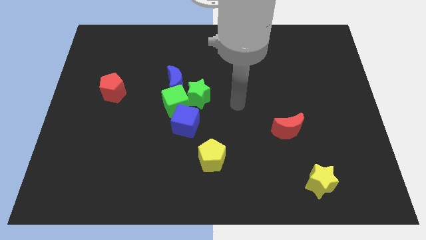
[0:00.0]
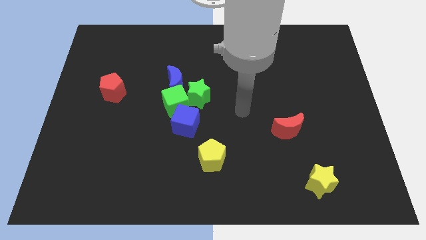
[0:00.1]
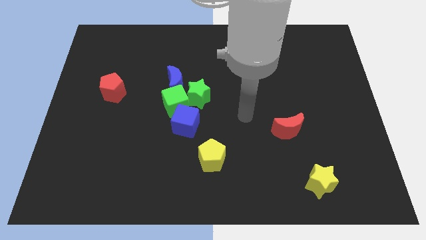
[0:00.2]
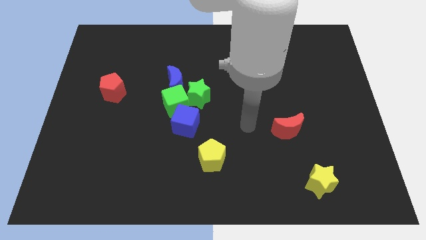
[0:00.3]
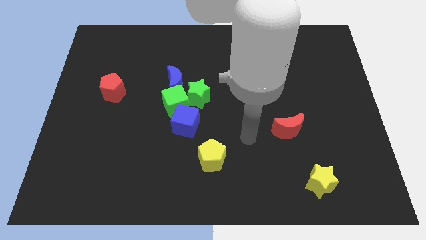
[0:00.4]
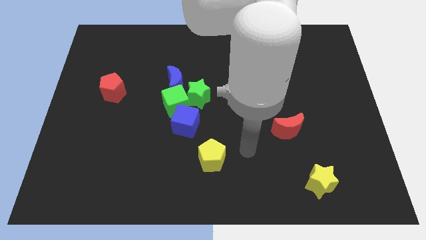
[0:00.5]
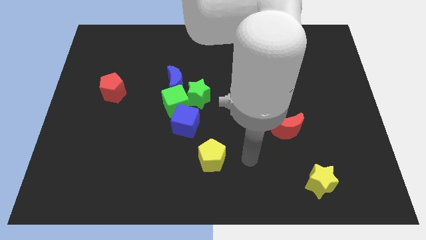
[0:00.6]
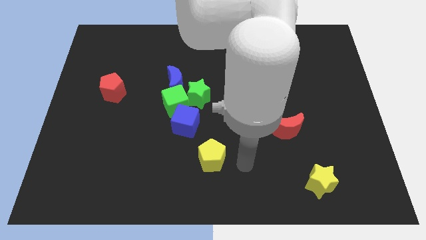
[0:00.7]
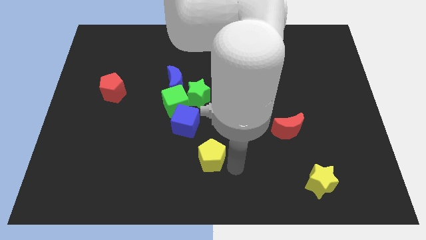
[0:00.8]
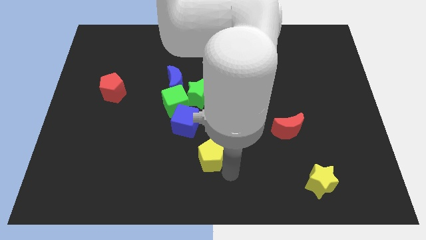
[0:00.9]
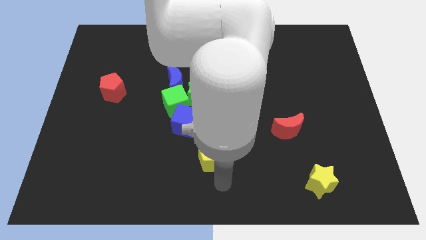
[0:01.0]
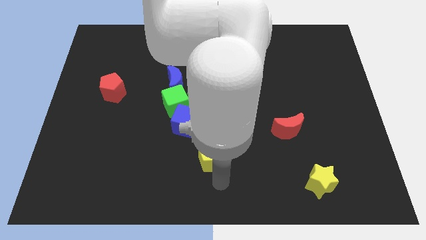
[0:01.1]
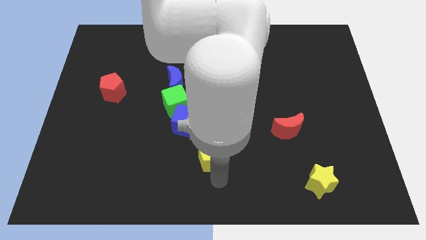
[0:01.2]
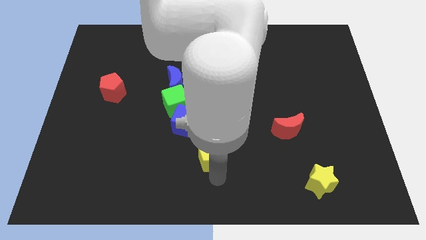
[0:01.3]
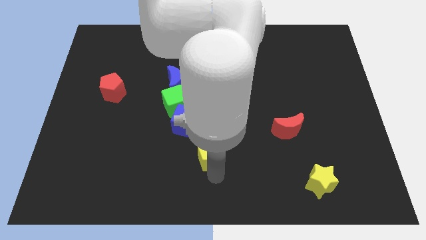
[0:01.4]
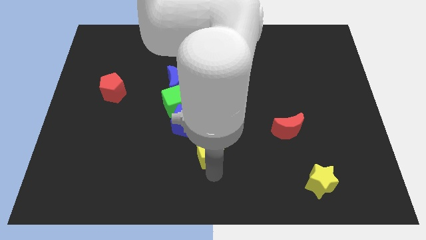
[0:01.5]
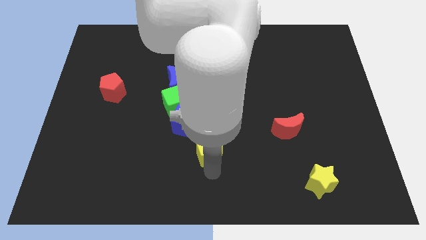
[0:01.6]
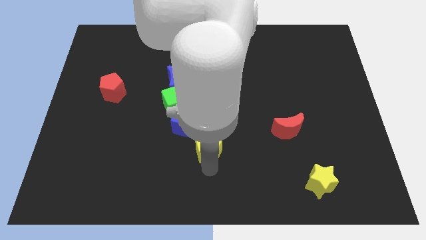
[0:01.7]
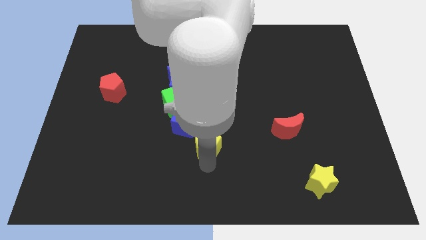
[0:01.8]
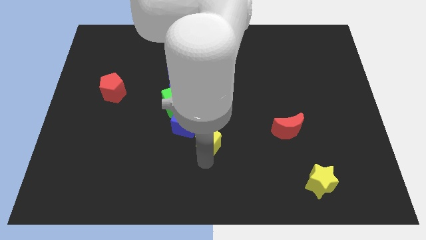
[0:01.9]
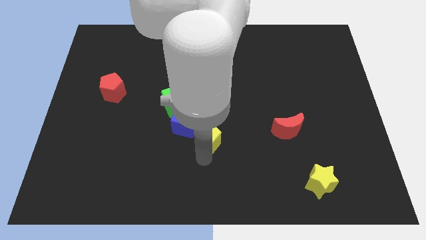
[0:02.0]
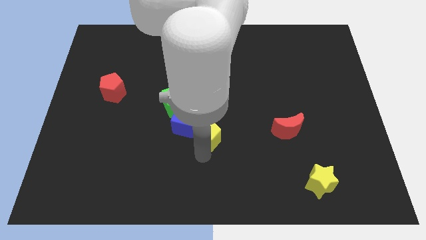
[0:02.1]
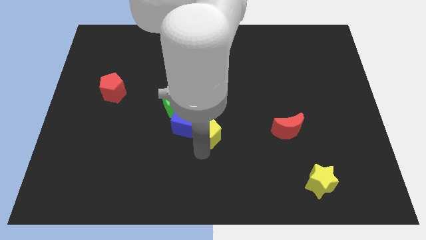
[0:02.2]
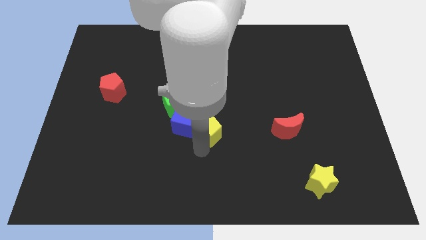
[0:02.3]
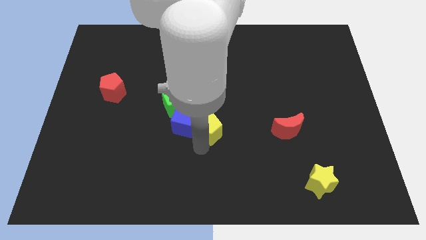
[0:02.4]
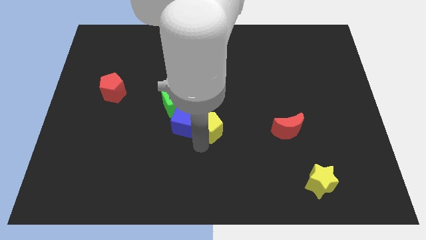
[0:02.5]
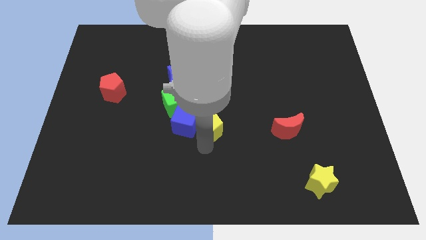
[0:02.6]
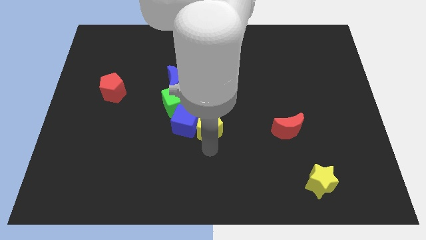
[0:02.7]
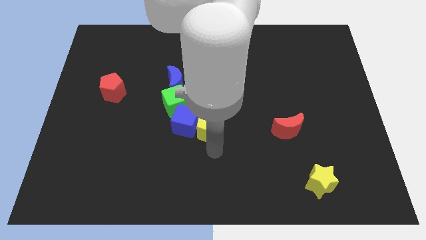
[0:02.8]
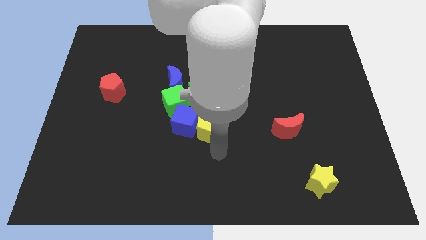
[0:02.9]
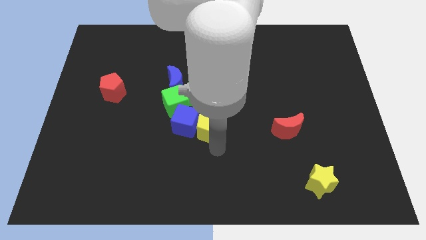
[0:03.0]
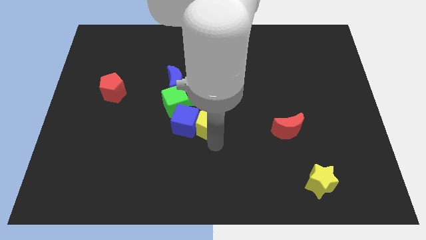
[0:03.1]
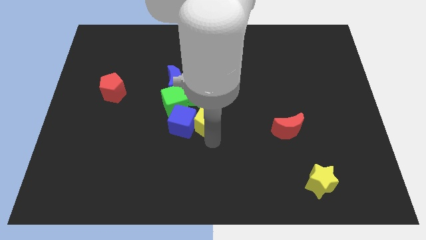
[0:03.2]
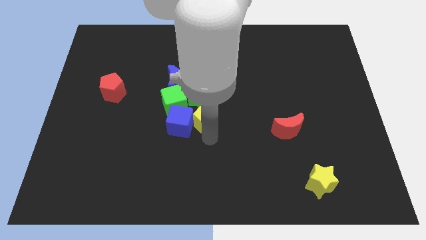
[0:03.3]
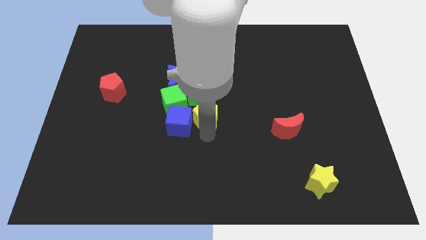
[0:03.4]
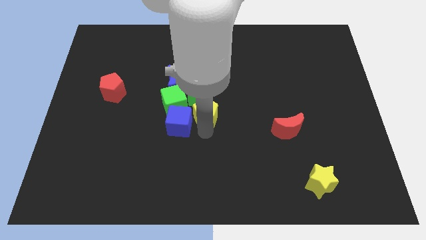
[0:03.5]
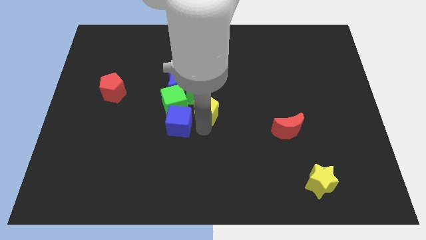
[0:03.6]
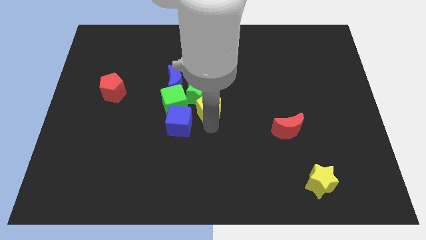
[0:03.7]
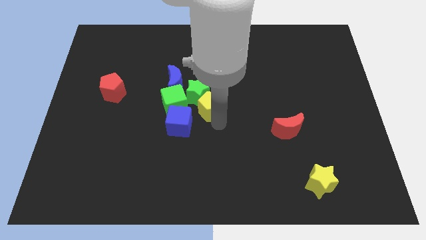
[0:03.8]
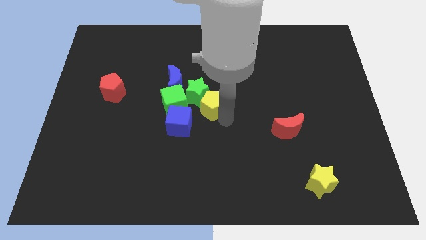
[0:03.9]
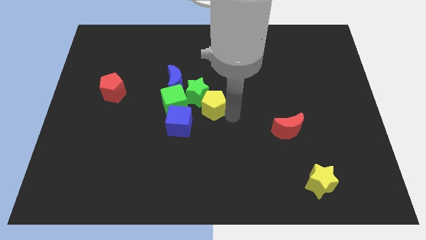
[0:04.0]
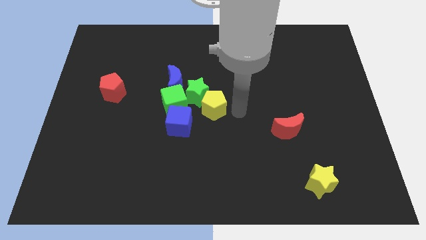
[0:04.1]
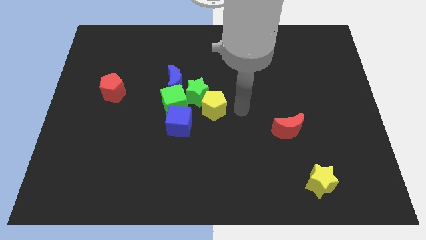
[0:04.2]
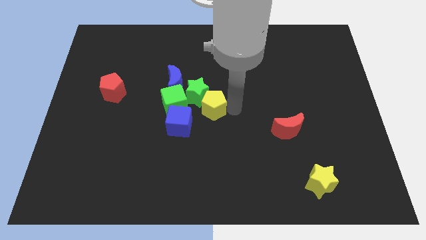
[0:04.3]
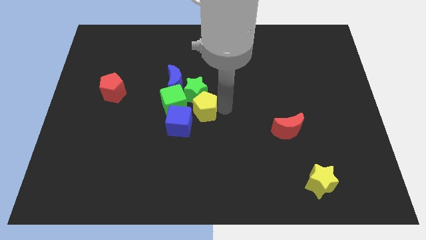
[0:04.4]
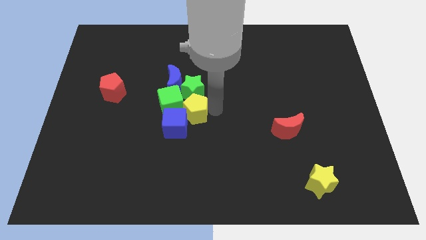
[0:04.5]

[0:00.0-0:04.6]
put the yellow pentagon to the green cube

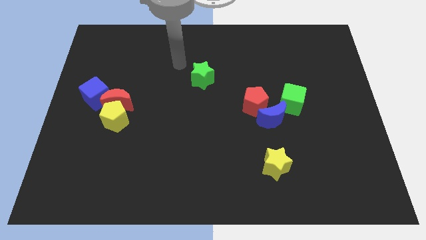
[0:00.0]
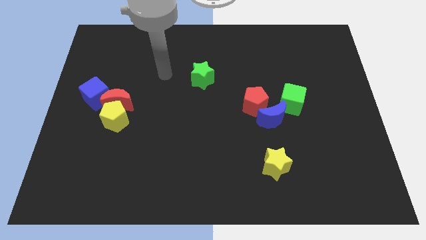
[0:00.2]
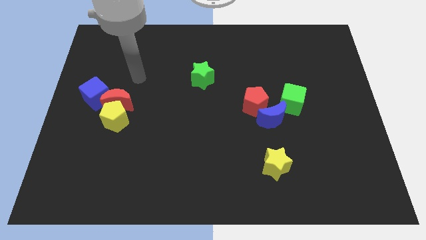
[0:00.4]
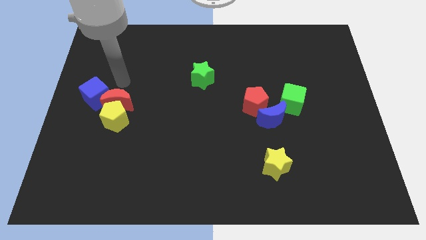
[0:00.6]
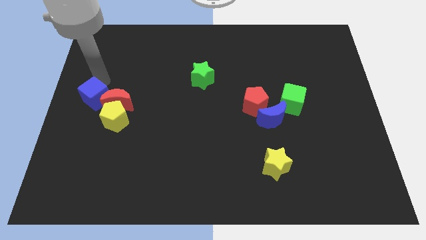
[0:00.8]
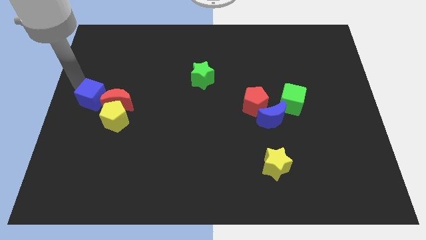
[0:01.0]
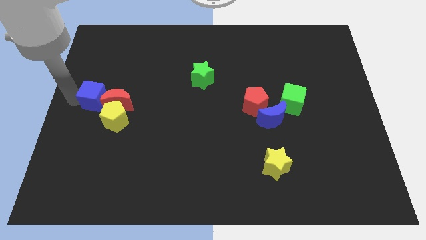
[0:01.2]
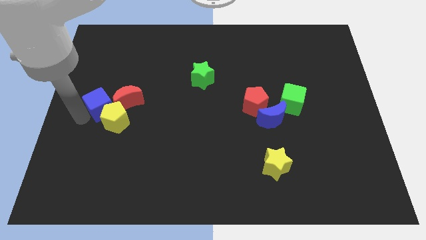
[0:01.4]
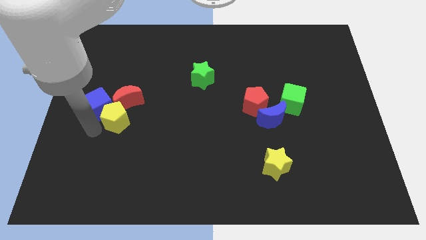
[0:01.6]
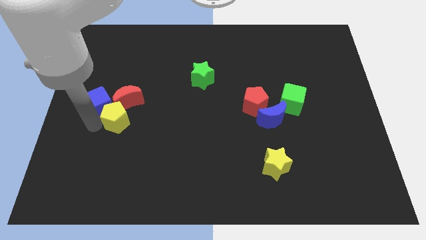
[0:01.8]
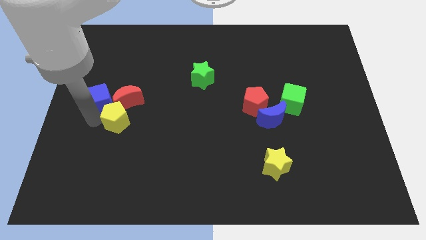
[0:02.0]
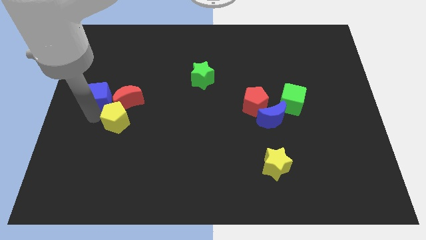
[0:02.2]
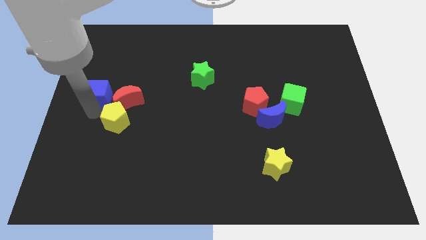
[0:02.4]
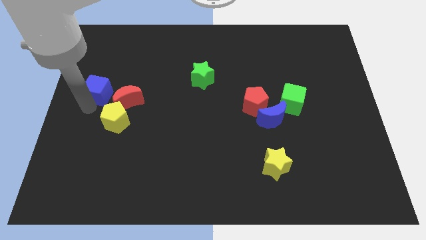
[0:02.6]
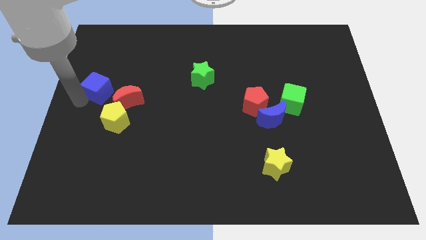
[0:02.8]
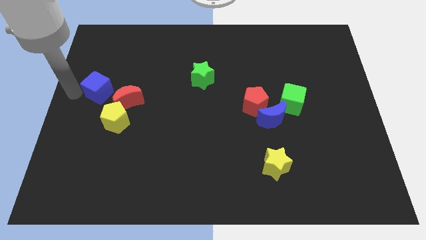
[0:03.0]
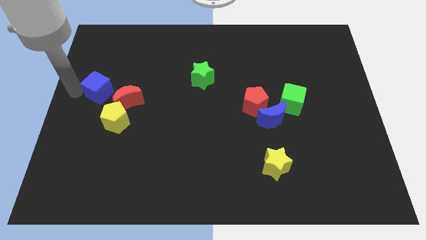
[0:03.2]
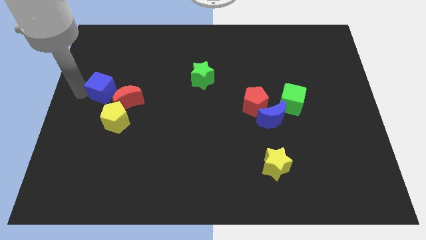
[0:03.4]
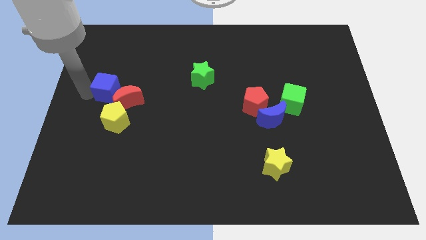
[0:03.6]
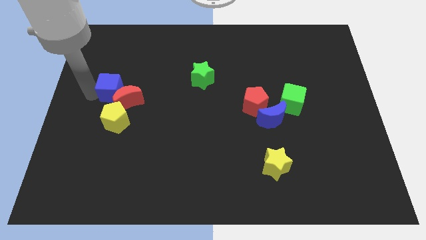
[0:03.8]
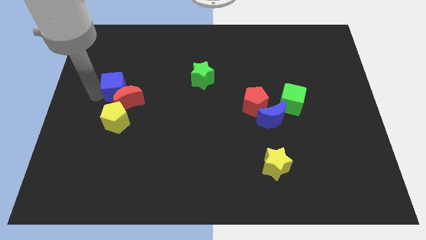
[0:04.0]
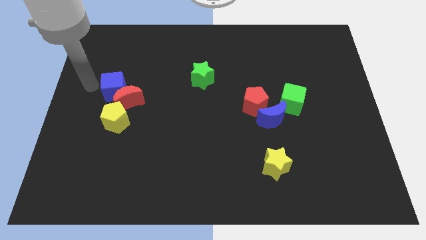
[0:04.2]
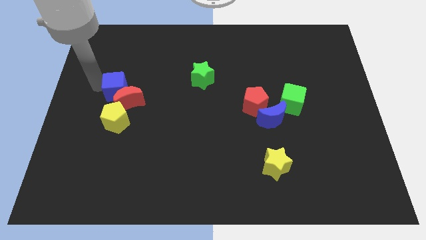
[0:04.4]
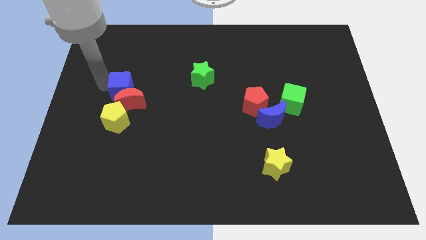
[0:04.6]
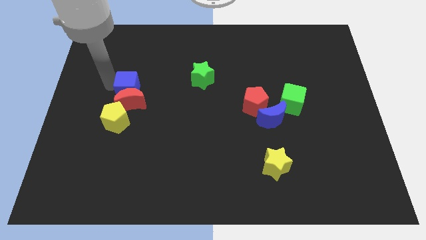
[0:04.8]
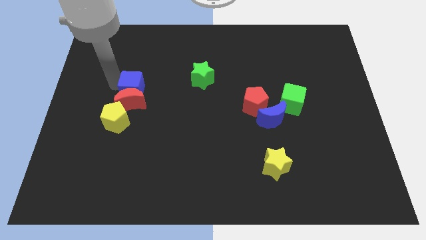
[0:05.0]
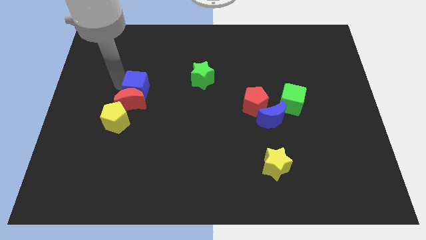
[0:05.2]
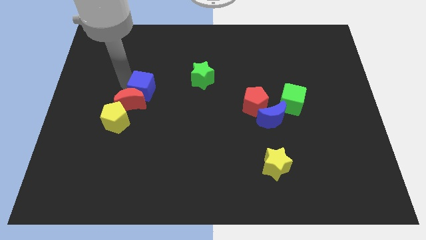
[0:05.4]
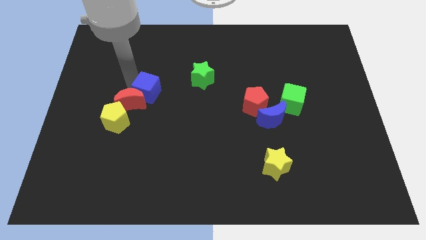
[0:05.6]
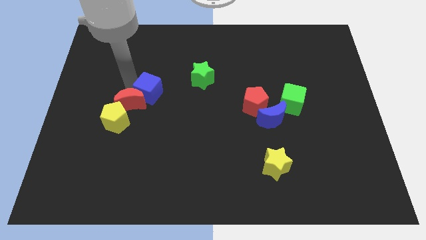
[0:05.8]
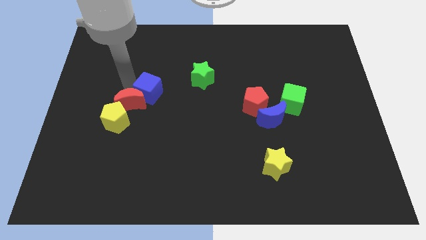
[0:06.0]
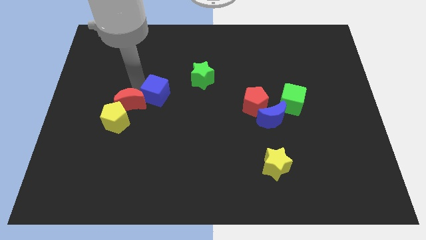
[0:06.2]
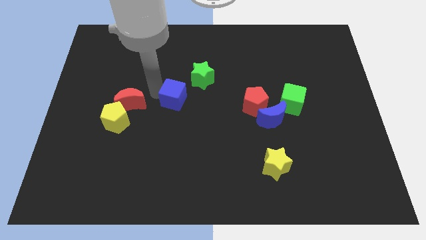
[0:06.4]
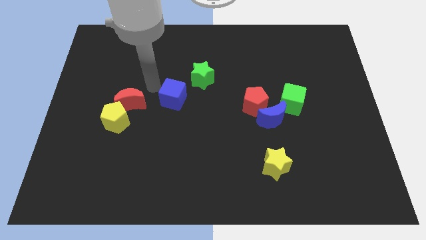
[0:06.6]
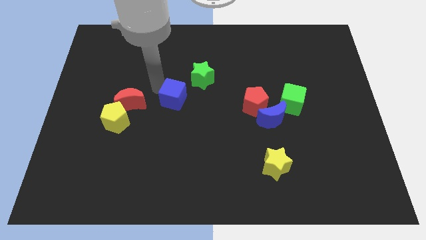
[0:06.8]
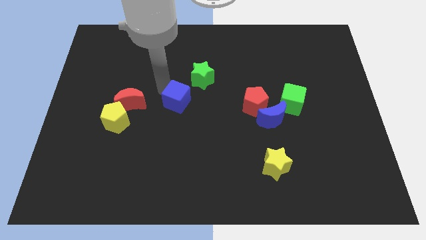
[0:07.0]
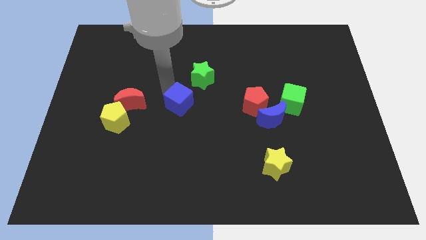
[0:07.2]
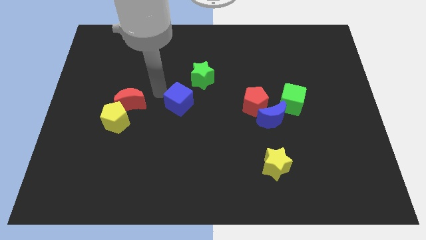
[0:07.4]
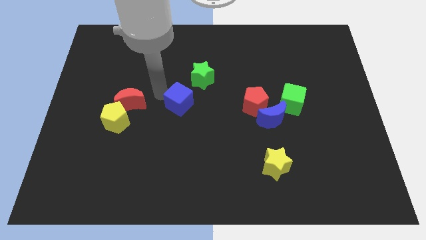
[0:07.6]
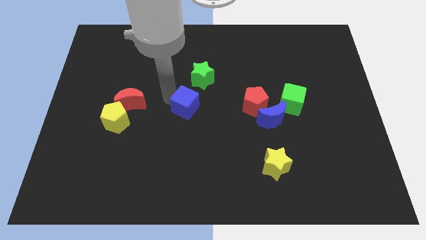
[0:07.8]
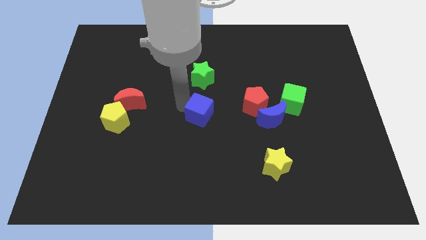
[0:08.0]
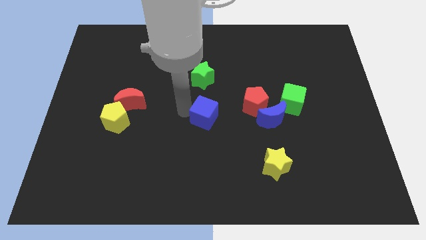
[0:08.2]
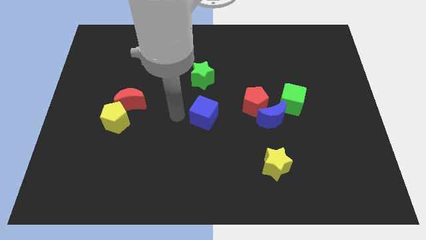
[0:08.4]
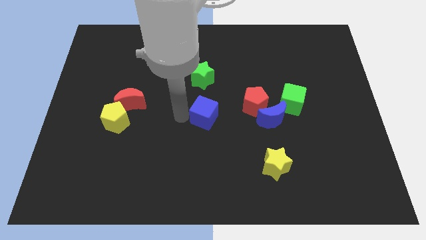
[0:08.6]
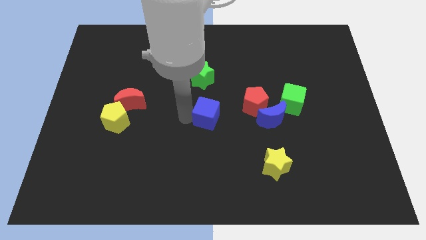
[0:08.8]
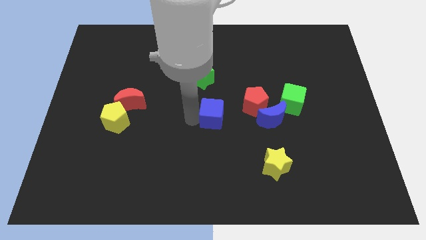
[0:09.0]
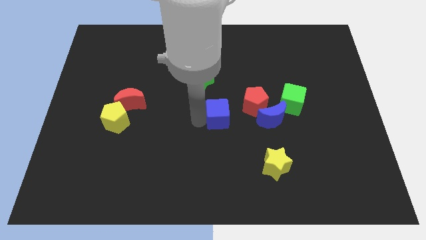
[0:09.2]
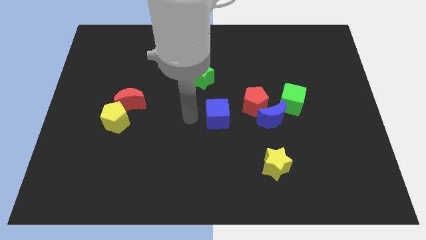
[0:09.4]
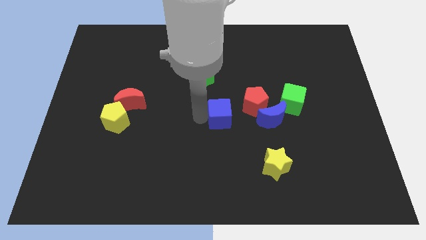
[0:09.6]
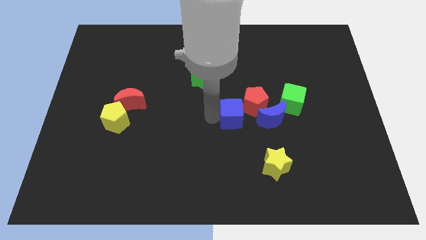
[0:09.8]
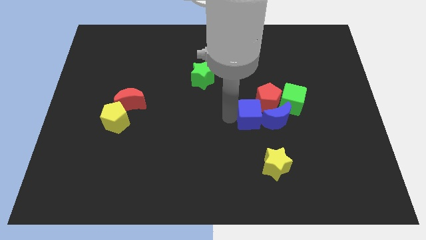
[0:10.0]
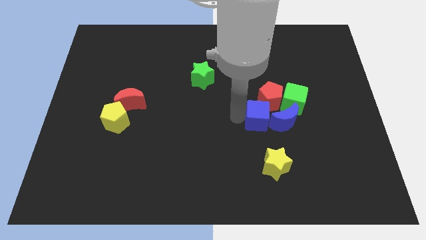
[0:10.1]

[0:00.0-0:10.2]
slide the blue cube to the blue moon
